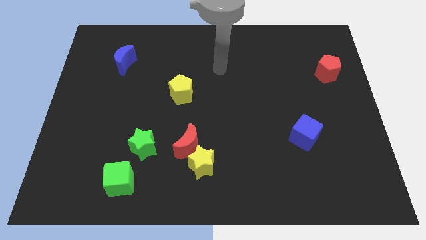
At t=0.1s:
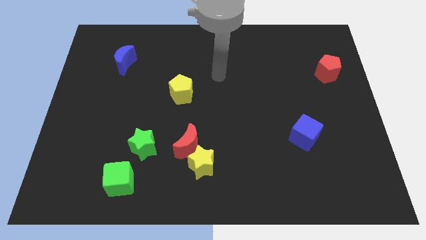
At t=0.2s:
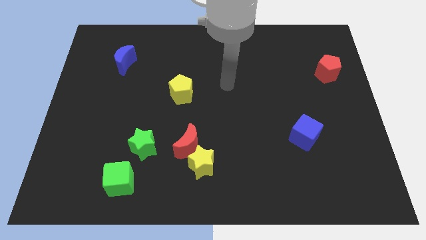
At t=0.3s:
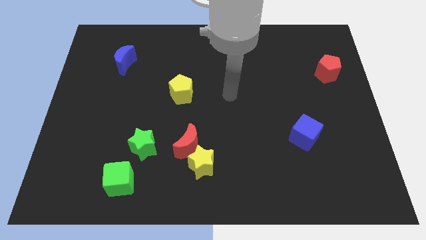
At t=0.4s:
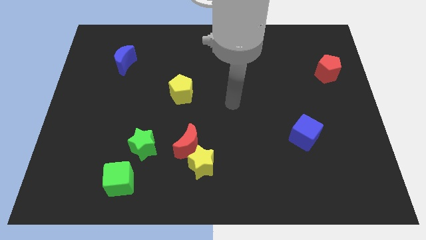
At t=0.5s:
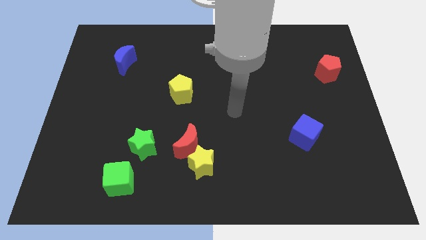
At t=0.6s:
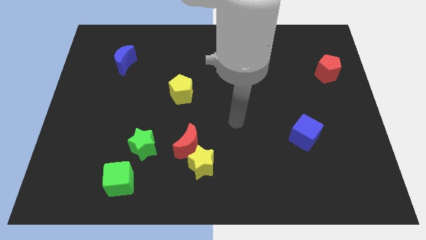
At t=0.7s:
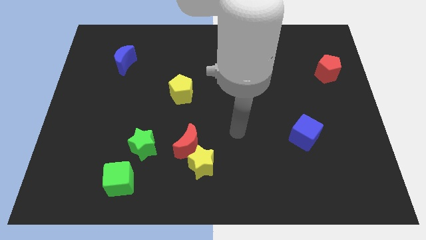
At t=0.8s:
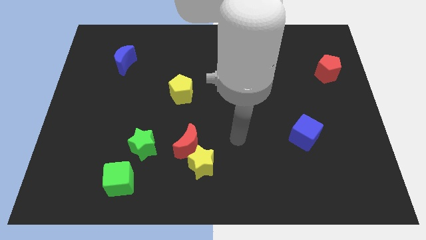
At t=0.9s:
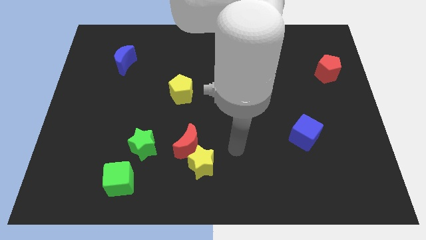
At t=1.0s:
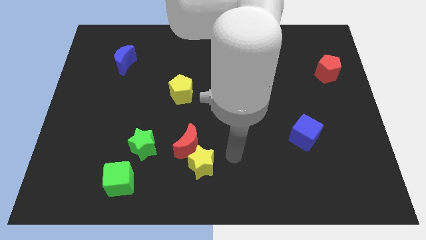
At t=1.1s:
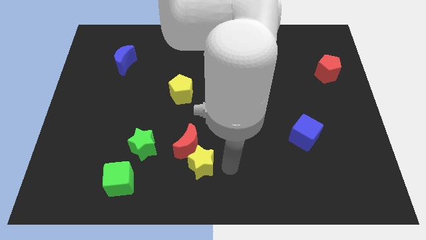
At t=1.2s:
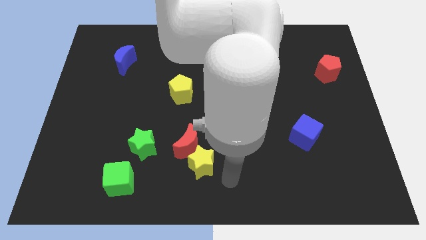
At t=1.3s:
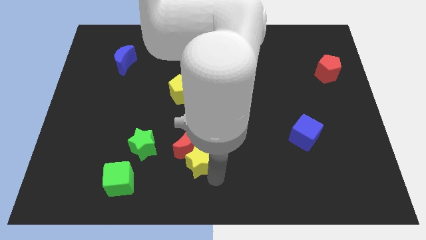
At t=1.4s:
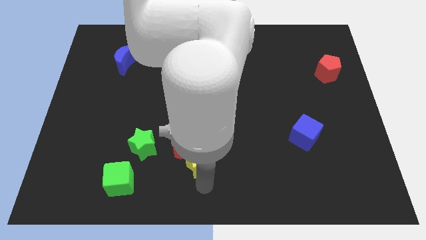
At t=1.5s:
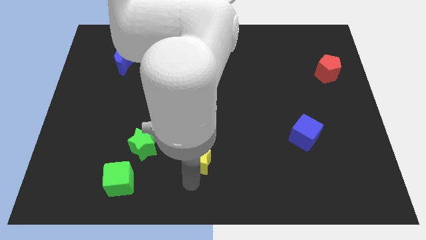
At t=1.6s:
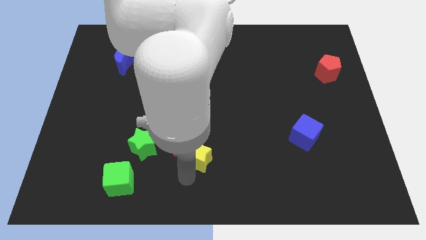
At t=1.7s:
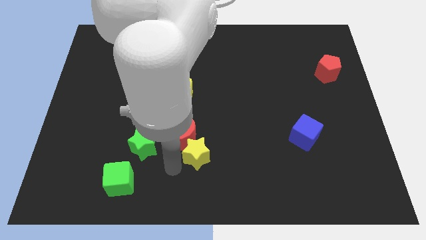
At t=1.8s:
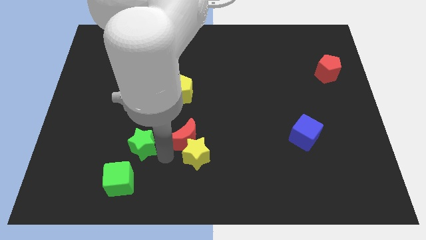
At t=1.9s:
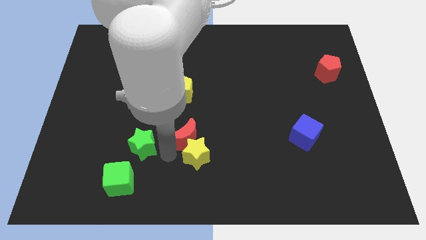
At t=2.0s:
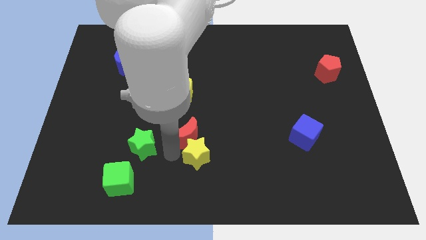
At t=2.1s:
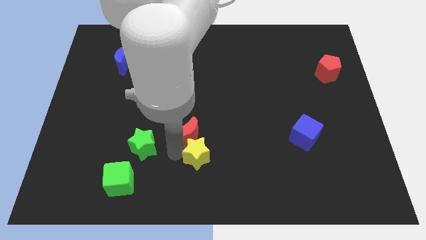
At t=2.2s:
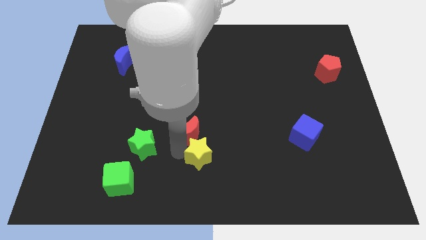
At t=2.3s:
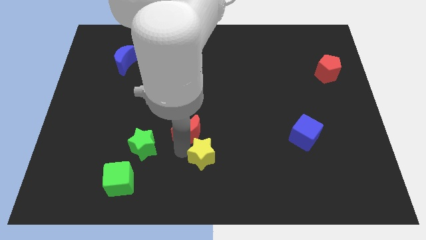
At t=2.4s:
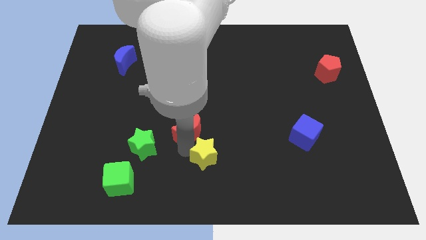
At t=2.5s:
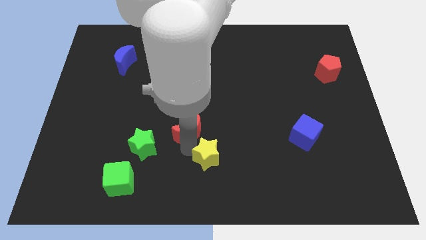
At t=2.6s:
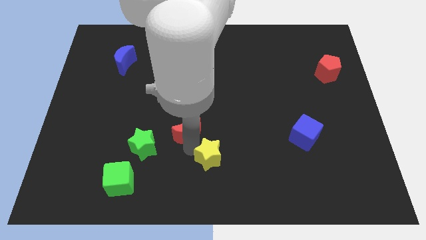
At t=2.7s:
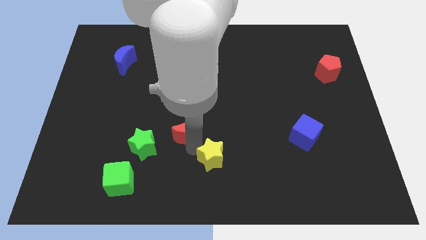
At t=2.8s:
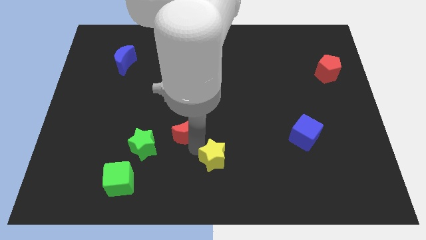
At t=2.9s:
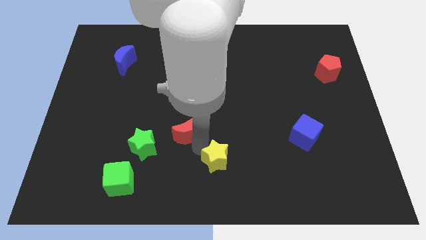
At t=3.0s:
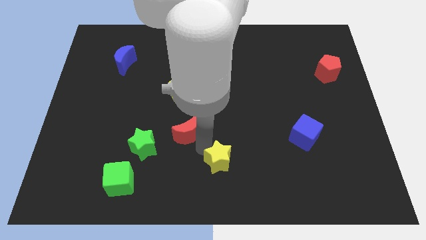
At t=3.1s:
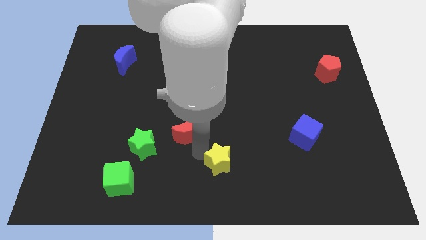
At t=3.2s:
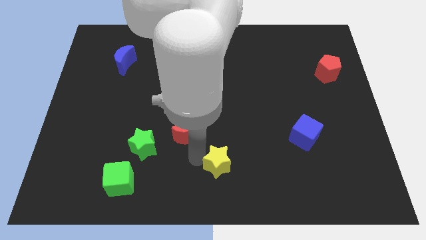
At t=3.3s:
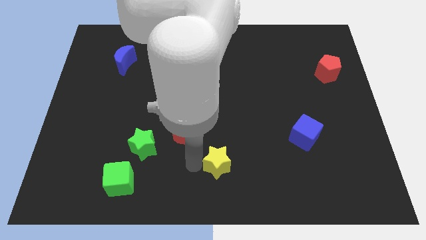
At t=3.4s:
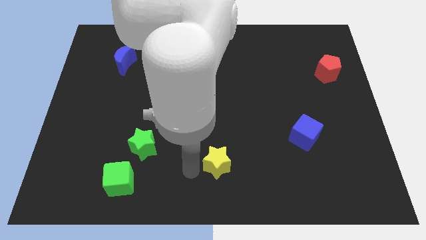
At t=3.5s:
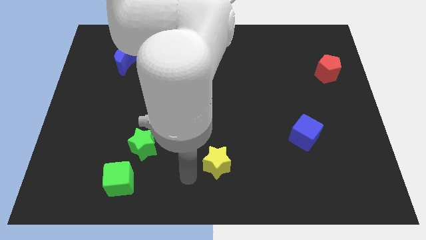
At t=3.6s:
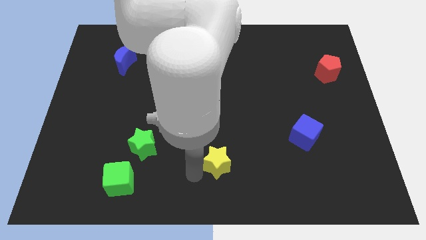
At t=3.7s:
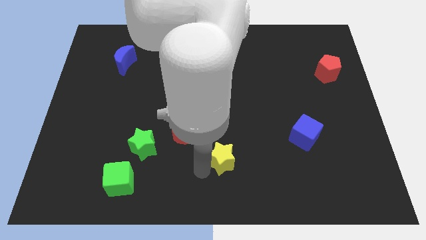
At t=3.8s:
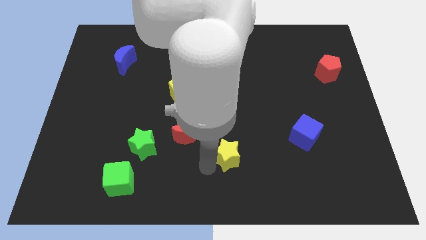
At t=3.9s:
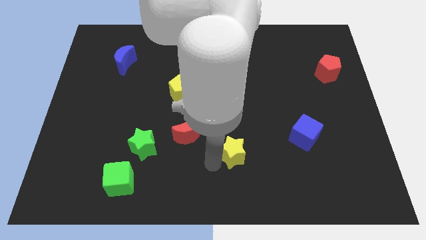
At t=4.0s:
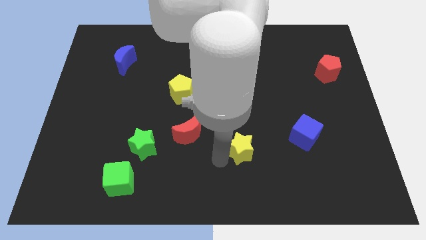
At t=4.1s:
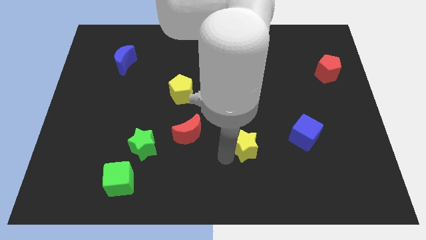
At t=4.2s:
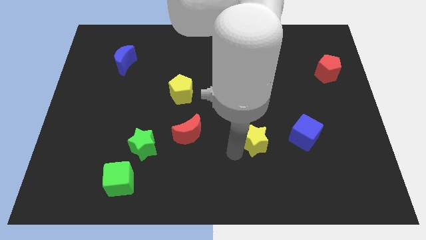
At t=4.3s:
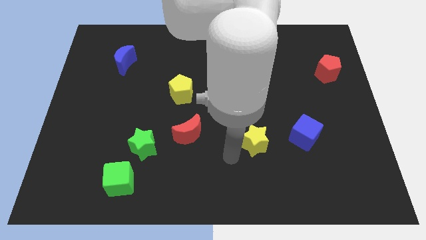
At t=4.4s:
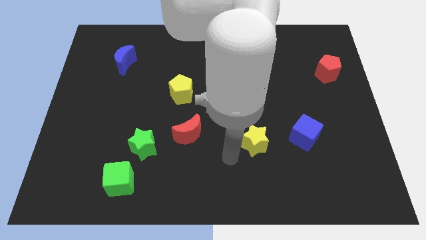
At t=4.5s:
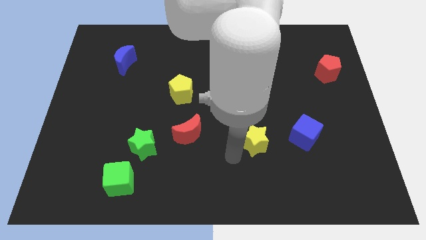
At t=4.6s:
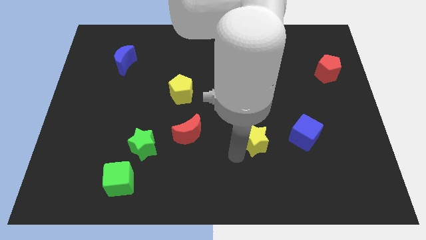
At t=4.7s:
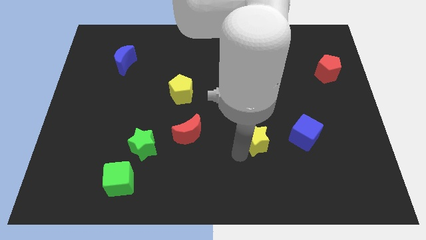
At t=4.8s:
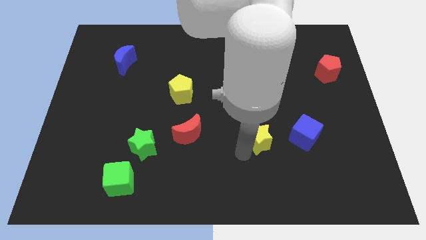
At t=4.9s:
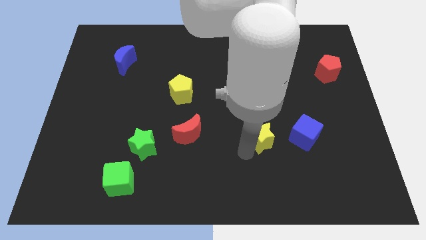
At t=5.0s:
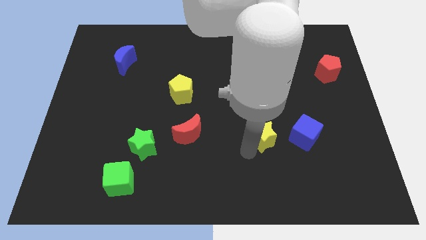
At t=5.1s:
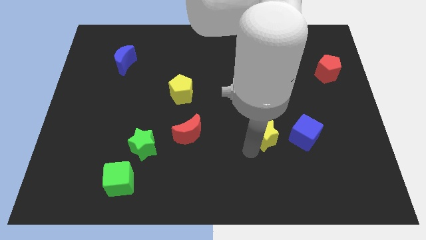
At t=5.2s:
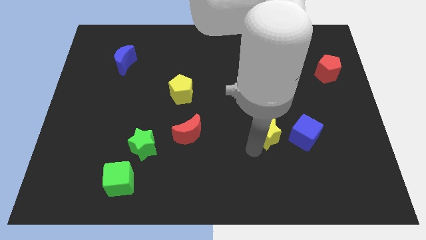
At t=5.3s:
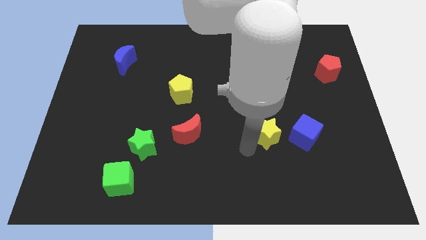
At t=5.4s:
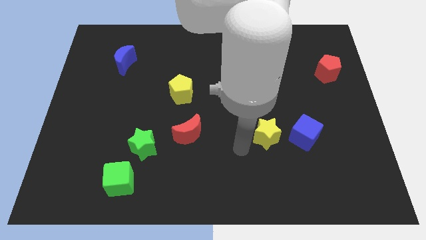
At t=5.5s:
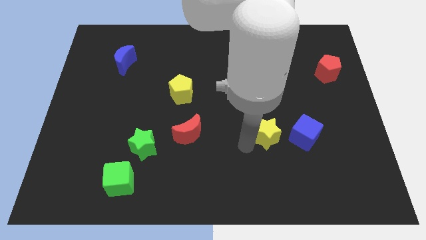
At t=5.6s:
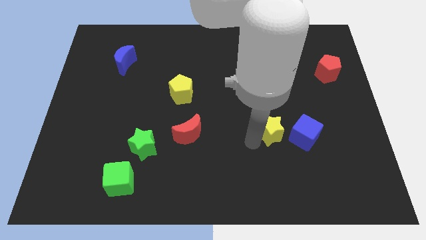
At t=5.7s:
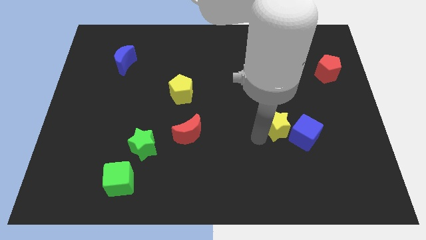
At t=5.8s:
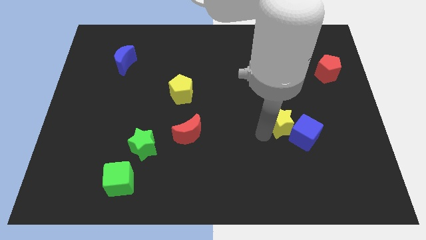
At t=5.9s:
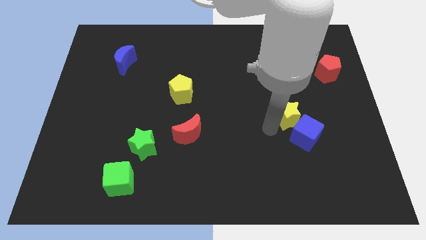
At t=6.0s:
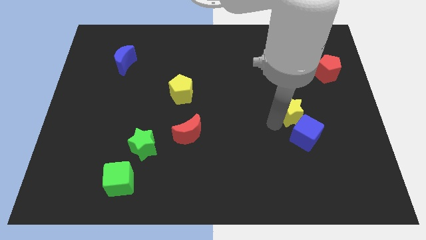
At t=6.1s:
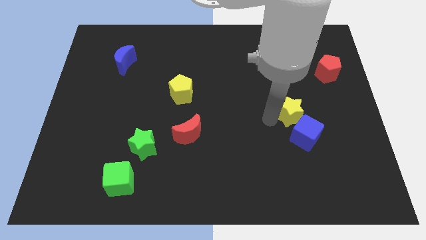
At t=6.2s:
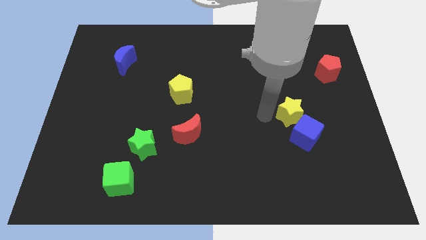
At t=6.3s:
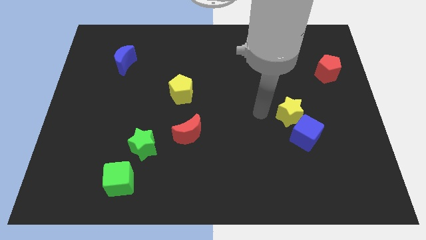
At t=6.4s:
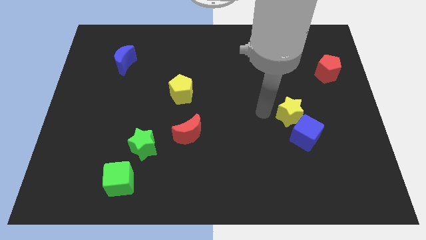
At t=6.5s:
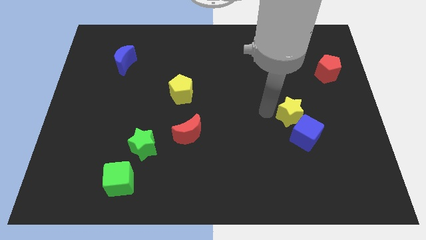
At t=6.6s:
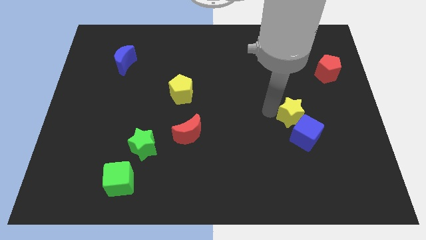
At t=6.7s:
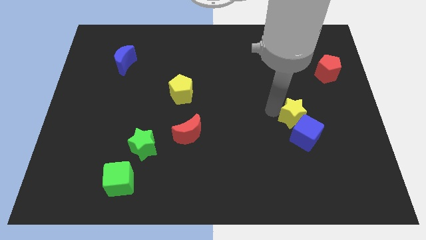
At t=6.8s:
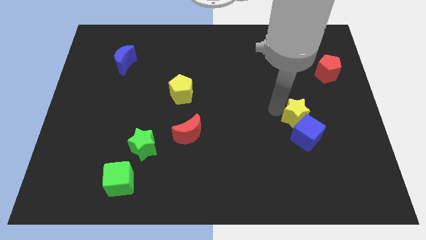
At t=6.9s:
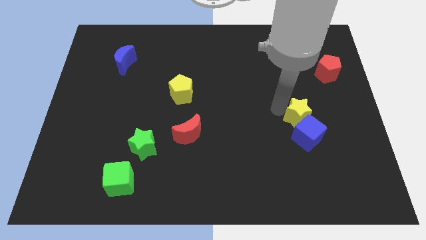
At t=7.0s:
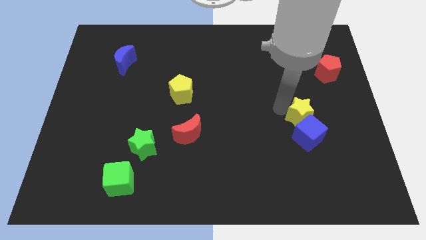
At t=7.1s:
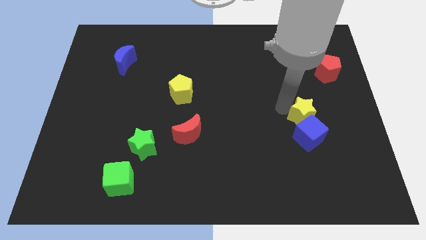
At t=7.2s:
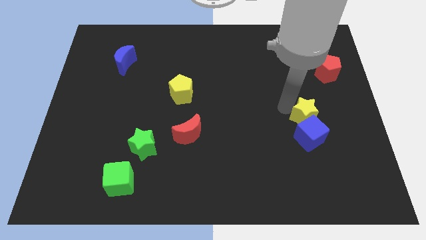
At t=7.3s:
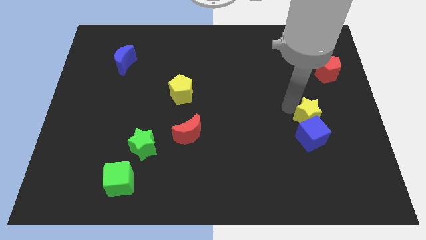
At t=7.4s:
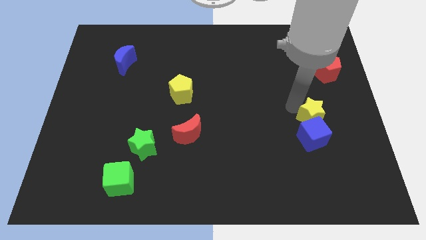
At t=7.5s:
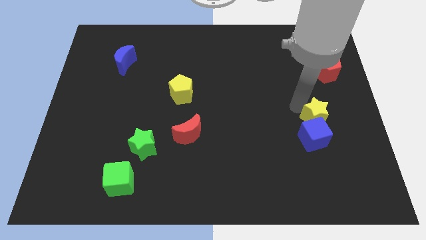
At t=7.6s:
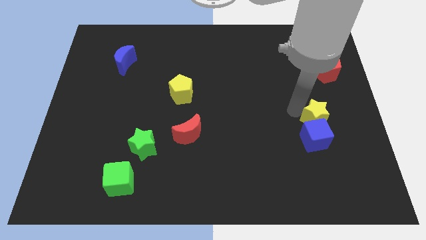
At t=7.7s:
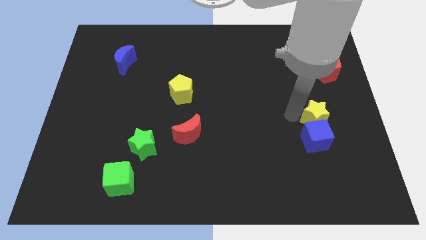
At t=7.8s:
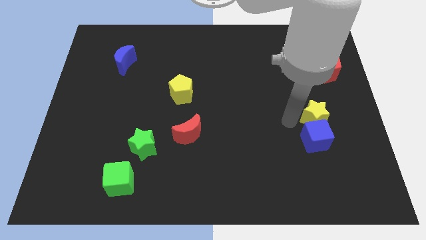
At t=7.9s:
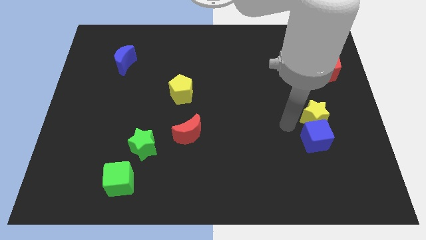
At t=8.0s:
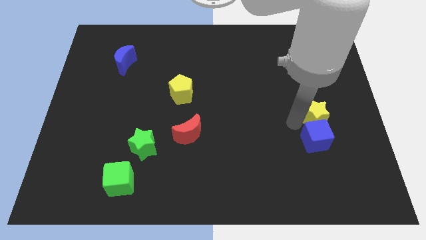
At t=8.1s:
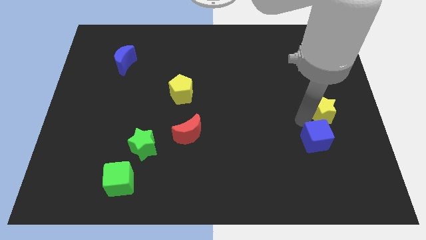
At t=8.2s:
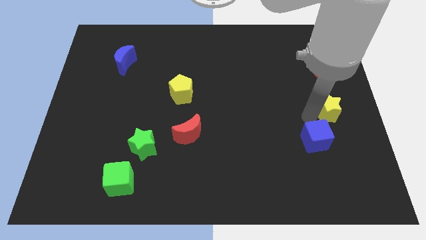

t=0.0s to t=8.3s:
push the yellow star to the center right
